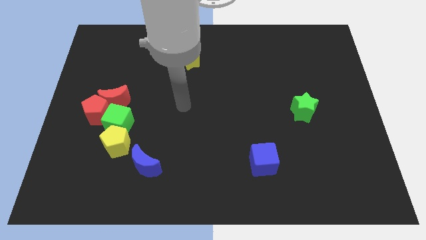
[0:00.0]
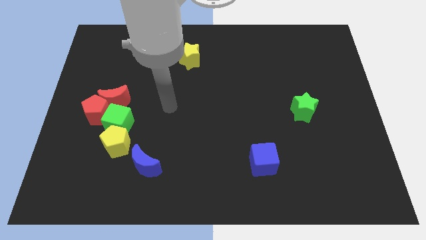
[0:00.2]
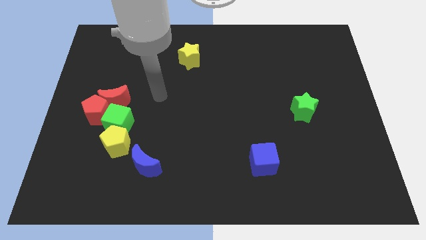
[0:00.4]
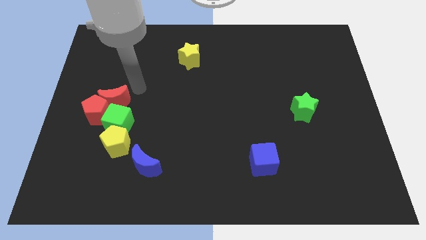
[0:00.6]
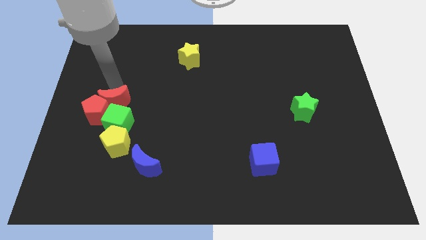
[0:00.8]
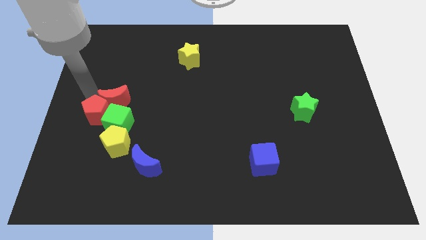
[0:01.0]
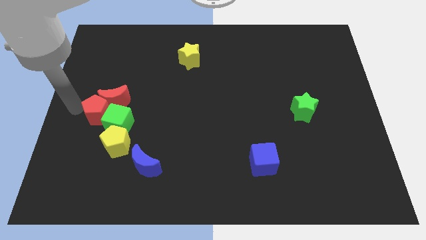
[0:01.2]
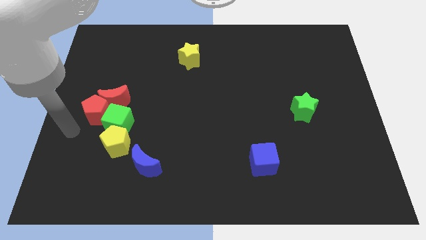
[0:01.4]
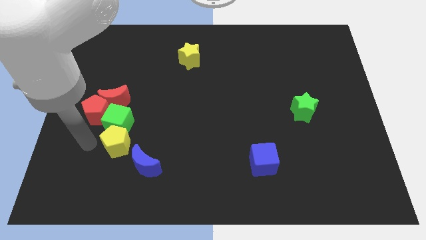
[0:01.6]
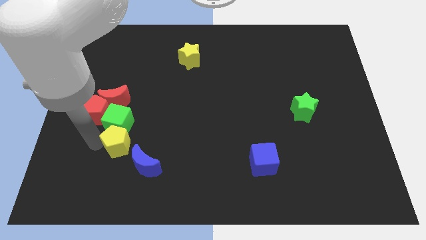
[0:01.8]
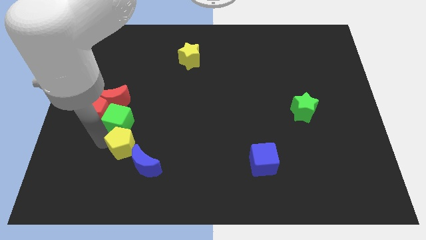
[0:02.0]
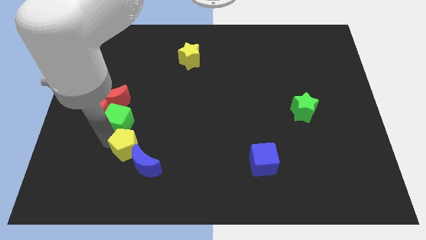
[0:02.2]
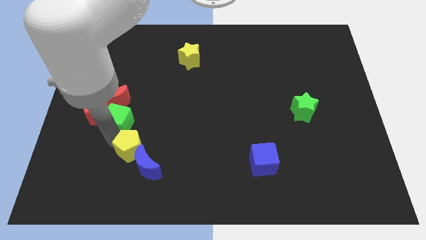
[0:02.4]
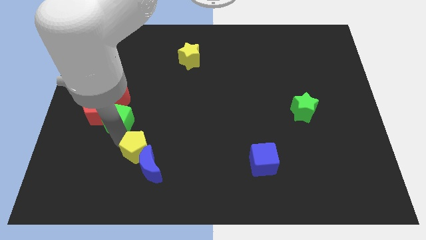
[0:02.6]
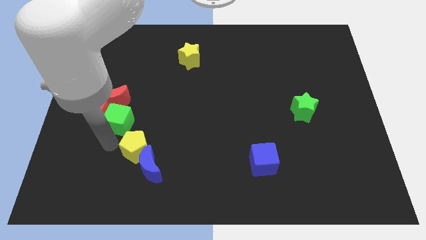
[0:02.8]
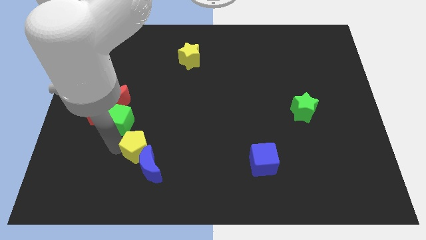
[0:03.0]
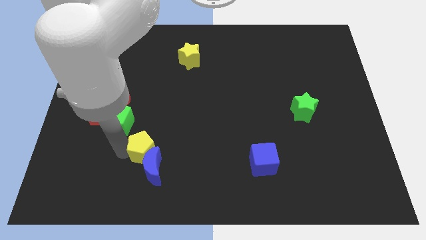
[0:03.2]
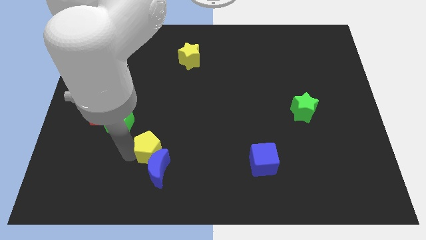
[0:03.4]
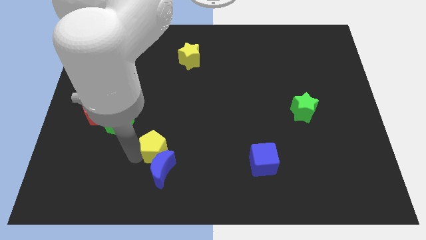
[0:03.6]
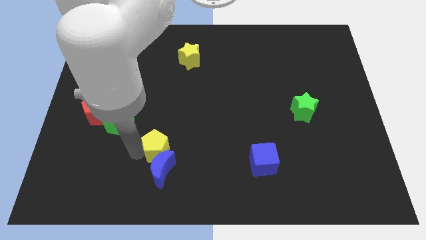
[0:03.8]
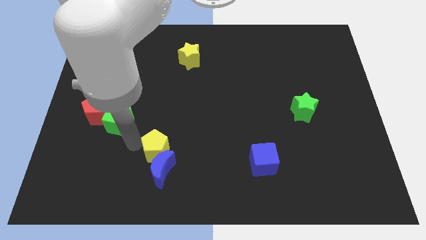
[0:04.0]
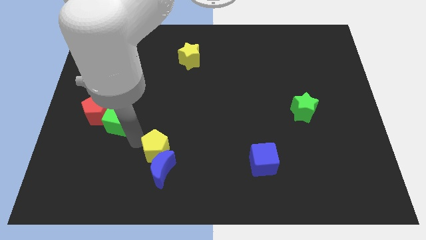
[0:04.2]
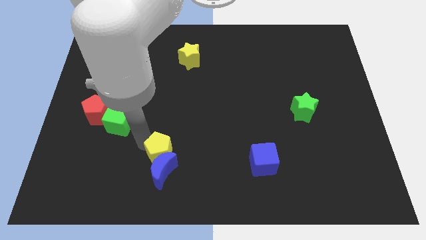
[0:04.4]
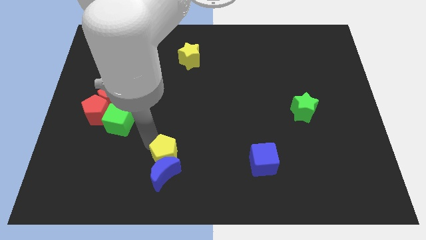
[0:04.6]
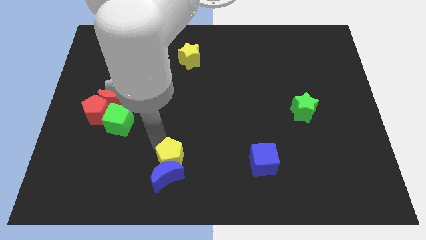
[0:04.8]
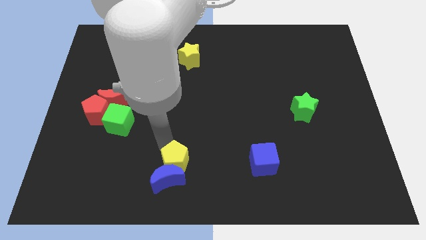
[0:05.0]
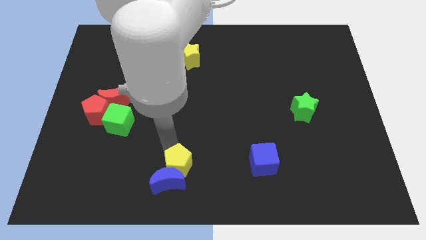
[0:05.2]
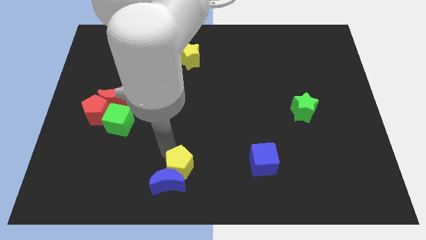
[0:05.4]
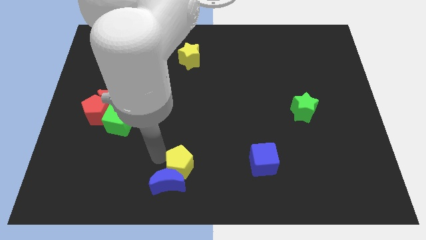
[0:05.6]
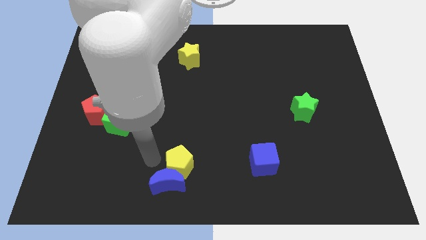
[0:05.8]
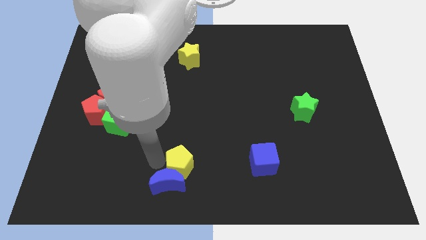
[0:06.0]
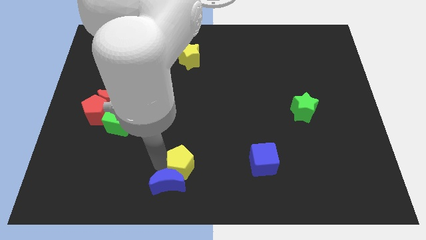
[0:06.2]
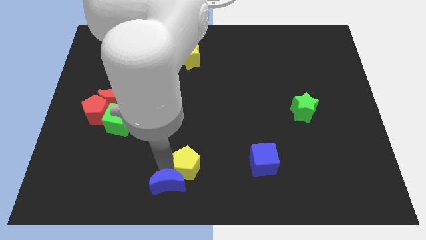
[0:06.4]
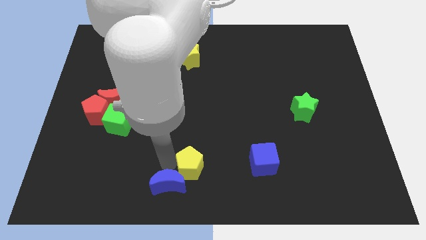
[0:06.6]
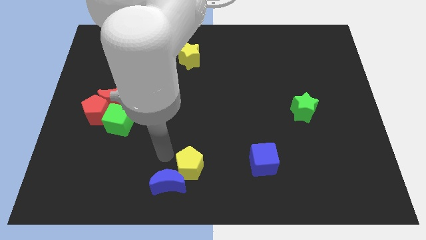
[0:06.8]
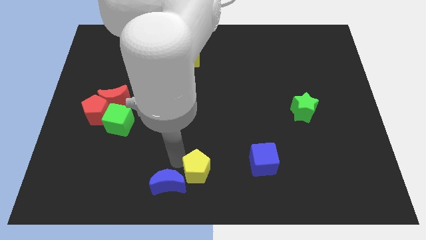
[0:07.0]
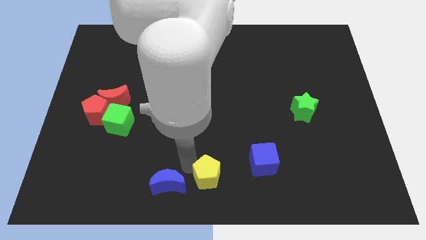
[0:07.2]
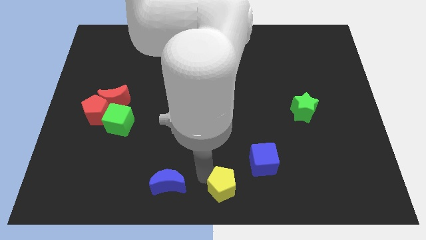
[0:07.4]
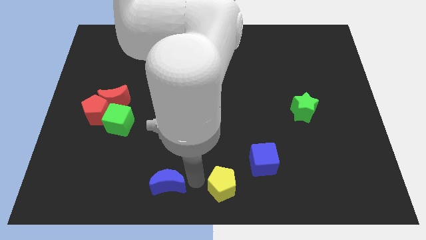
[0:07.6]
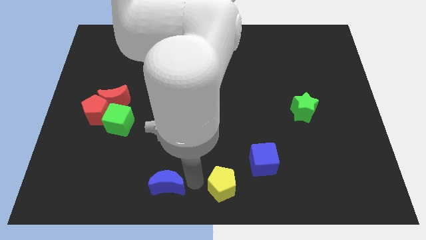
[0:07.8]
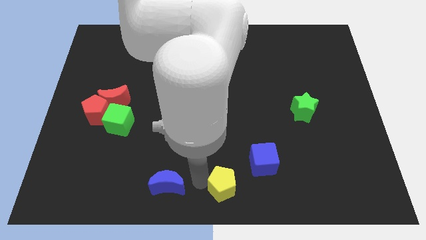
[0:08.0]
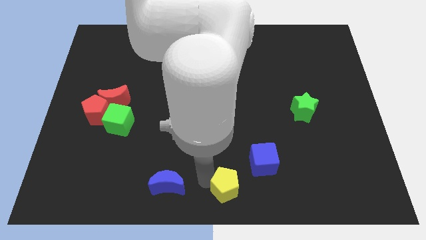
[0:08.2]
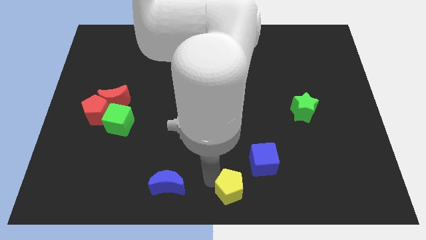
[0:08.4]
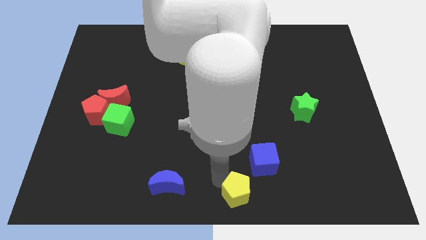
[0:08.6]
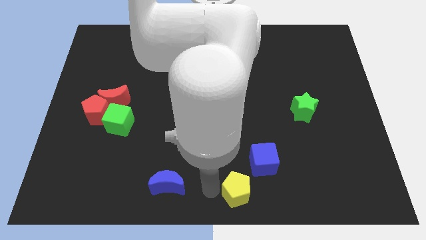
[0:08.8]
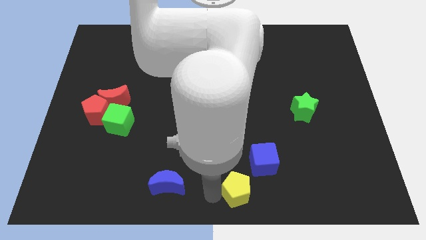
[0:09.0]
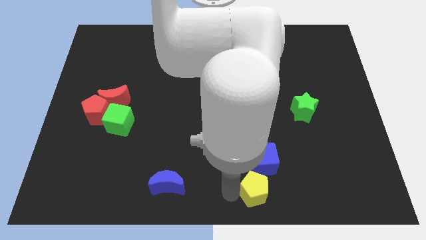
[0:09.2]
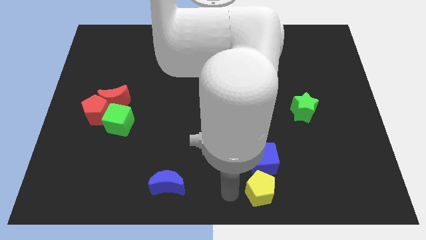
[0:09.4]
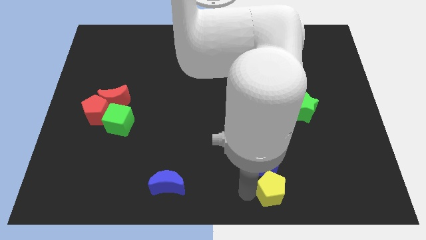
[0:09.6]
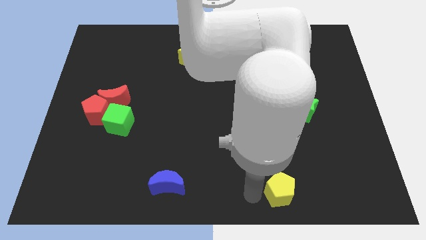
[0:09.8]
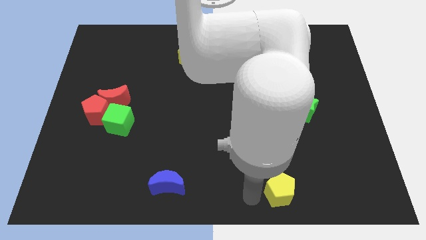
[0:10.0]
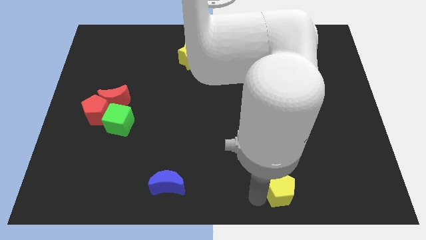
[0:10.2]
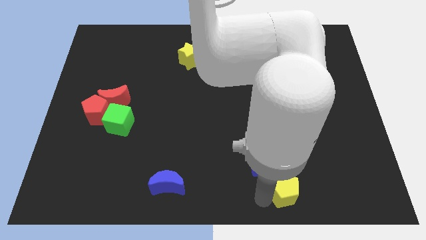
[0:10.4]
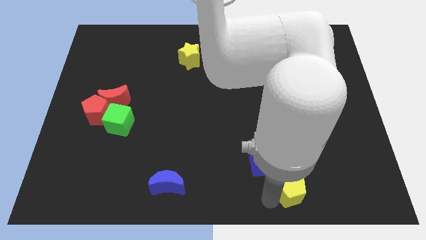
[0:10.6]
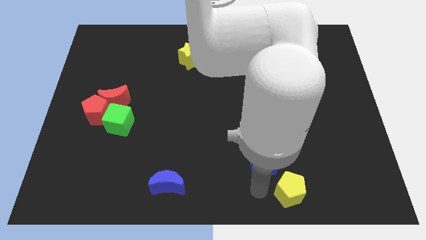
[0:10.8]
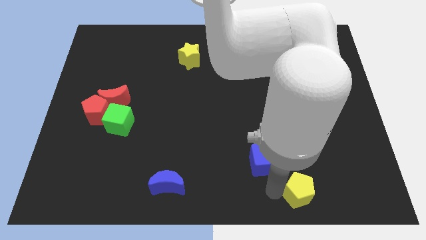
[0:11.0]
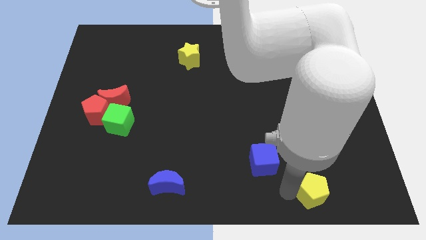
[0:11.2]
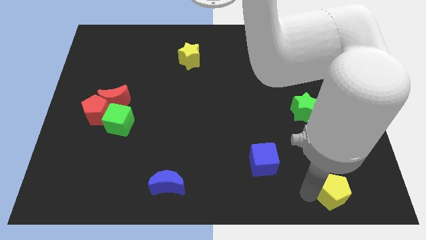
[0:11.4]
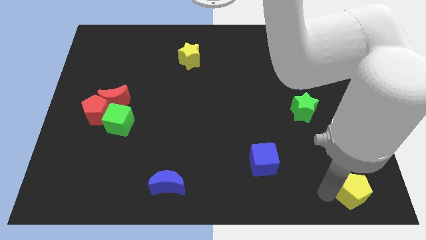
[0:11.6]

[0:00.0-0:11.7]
push the yellow pentagon to the bottom right

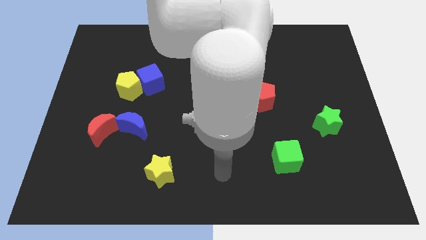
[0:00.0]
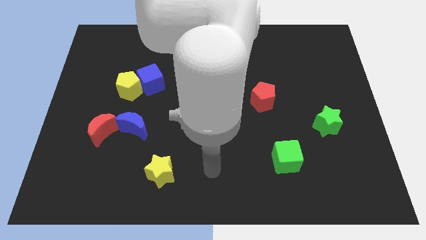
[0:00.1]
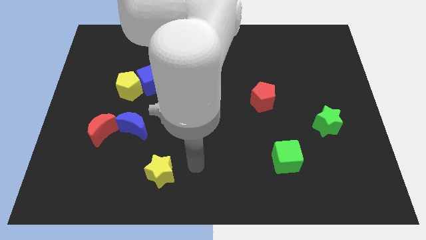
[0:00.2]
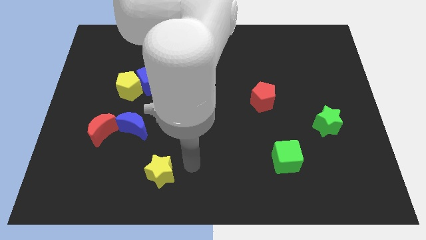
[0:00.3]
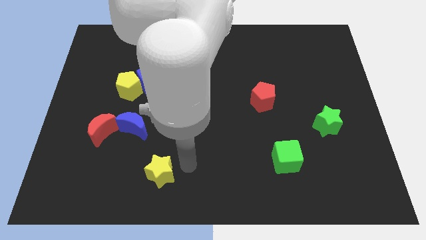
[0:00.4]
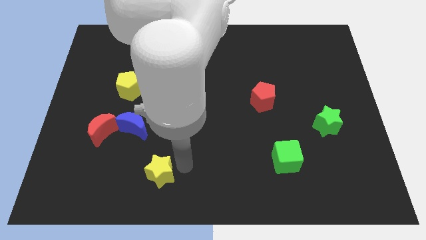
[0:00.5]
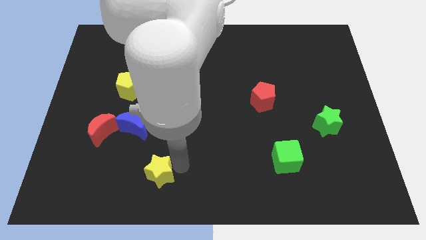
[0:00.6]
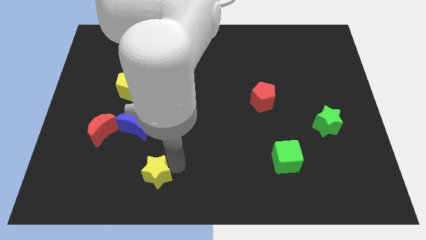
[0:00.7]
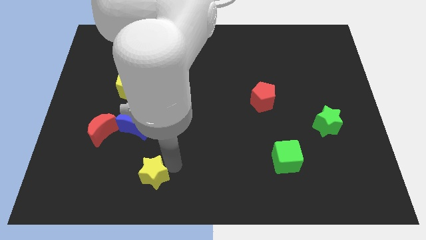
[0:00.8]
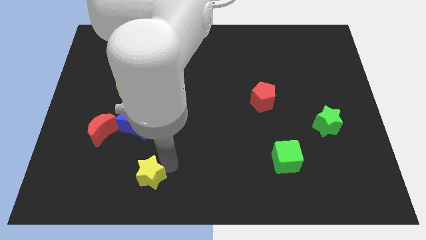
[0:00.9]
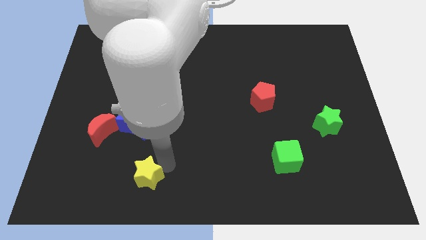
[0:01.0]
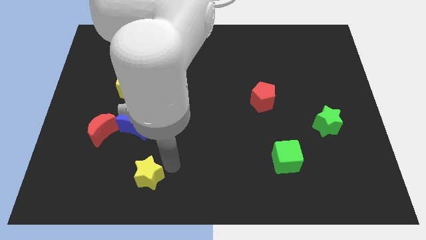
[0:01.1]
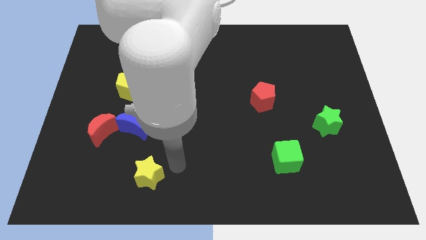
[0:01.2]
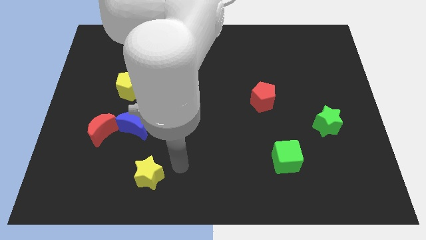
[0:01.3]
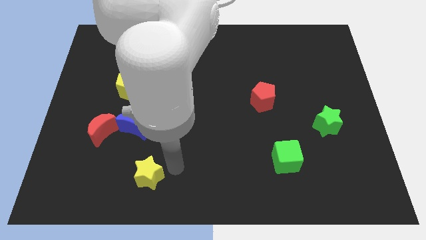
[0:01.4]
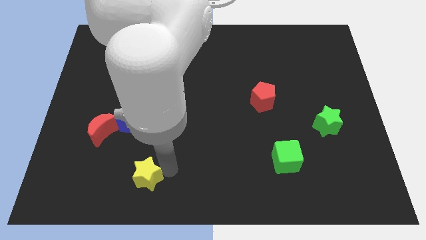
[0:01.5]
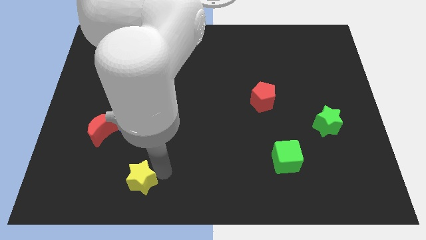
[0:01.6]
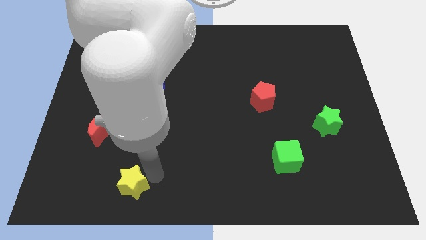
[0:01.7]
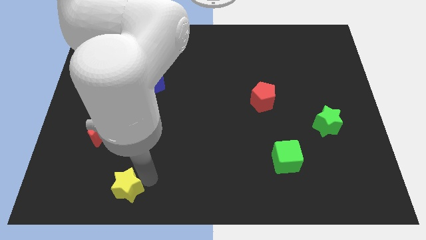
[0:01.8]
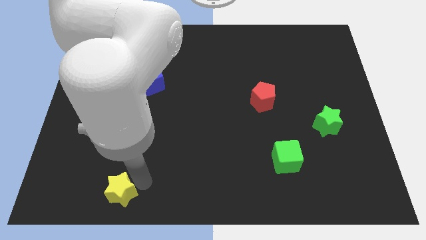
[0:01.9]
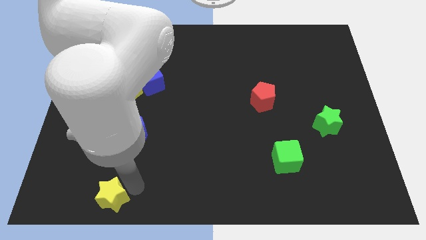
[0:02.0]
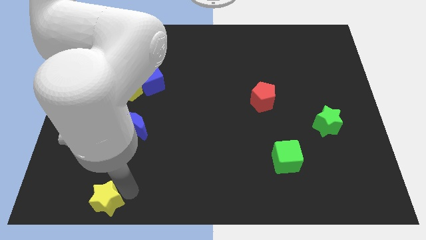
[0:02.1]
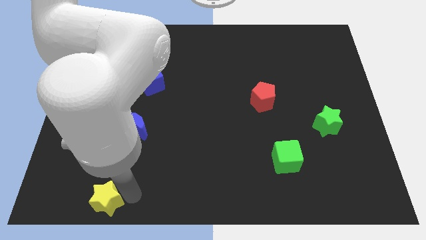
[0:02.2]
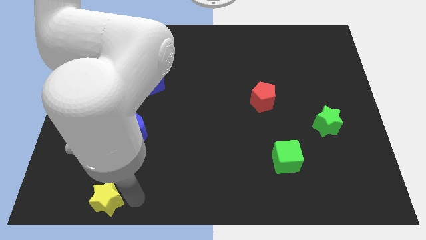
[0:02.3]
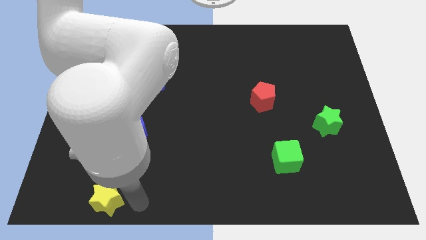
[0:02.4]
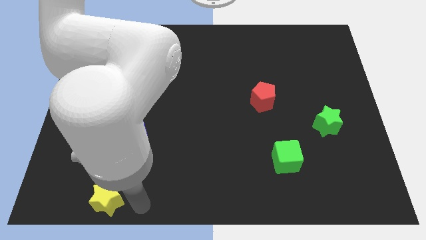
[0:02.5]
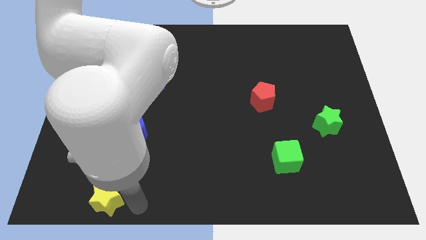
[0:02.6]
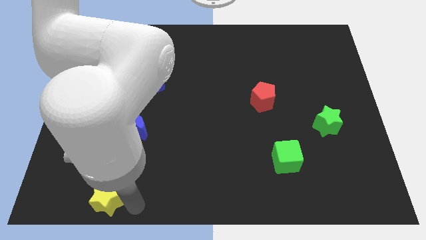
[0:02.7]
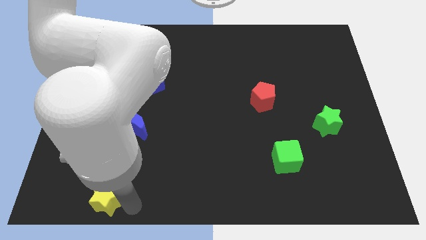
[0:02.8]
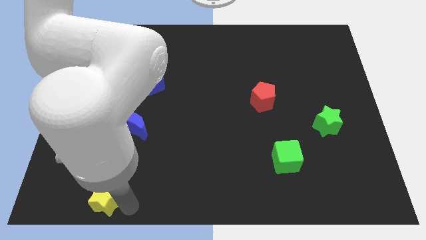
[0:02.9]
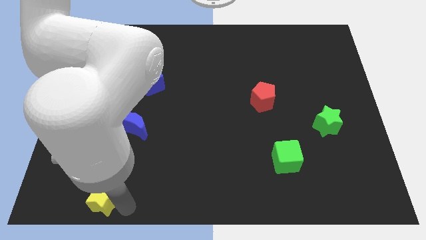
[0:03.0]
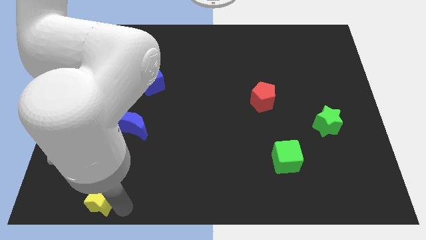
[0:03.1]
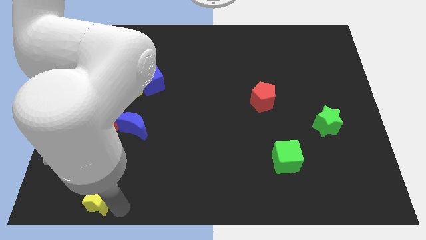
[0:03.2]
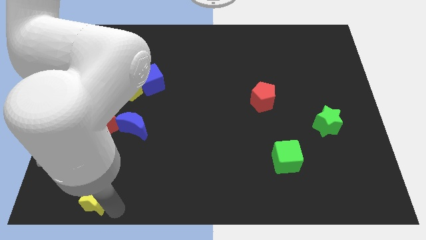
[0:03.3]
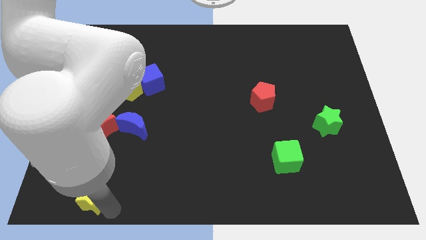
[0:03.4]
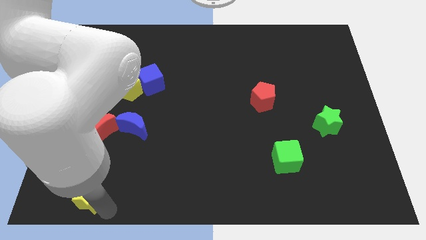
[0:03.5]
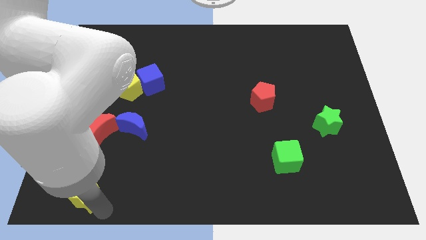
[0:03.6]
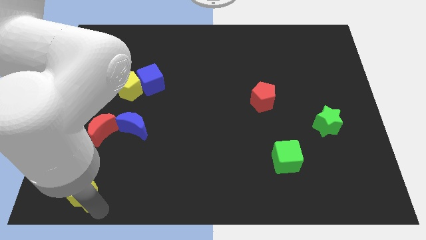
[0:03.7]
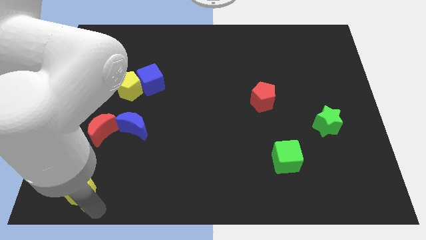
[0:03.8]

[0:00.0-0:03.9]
move the yellow star to the lower left corner
